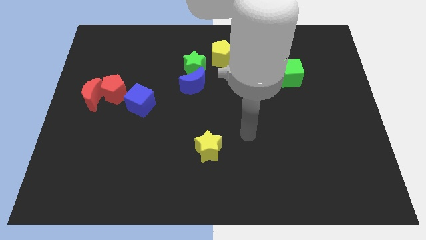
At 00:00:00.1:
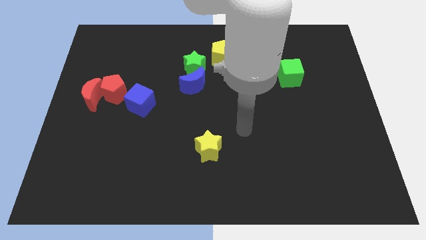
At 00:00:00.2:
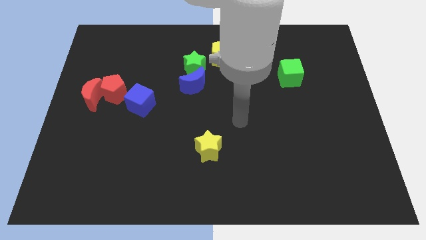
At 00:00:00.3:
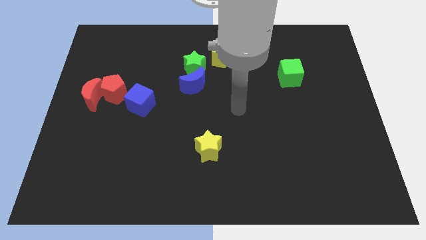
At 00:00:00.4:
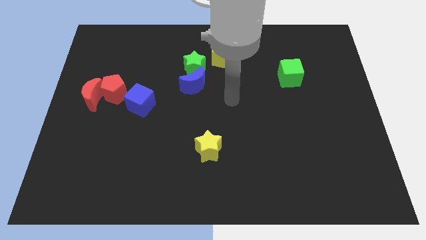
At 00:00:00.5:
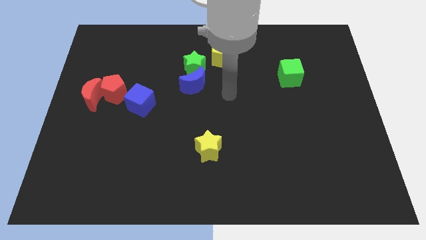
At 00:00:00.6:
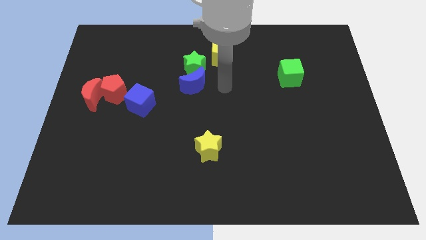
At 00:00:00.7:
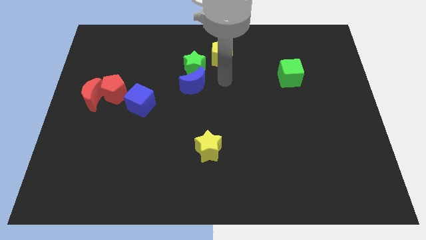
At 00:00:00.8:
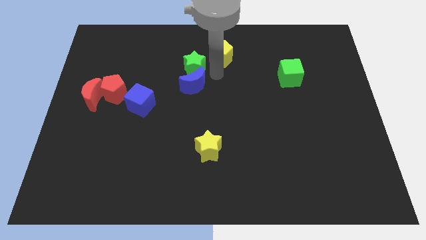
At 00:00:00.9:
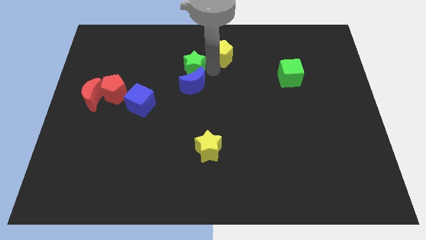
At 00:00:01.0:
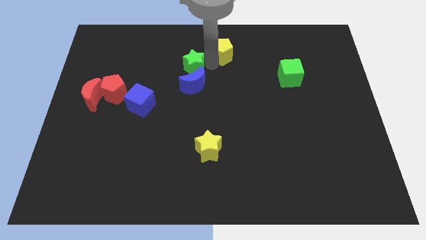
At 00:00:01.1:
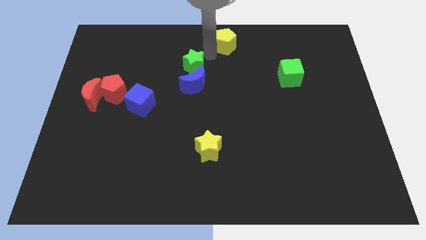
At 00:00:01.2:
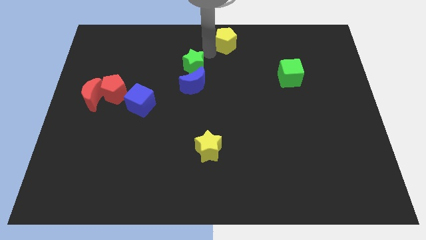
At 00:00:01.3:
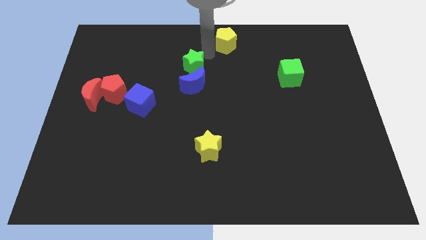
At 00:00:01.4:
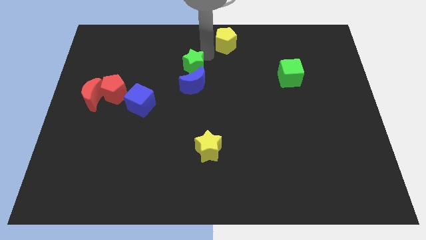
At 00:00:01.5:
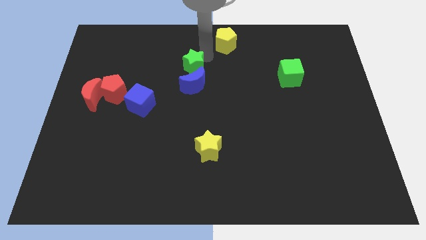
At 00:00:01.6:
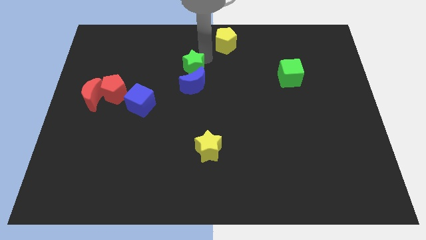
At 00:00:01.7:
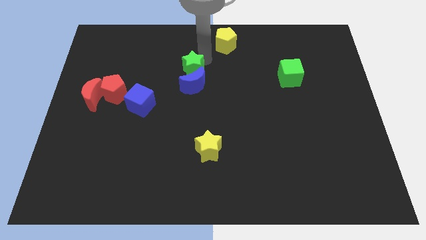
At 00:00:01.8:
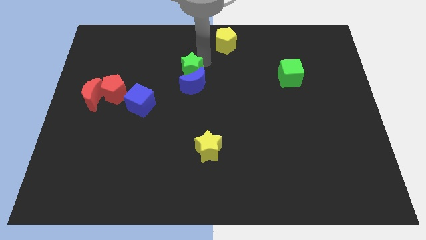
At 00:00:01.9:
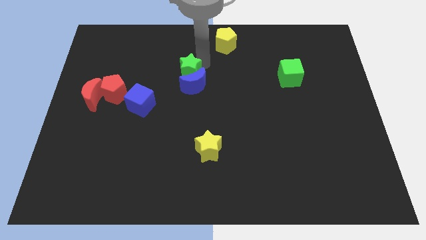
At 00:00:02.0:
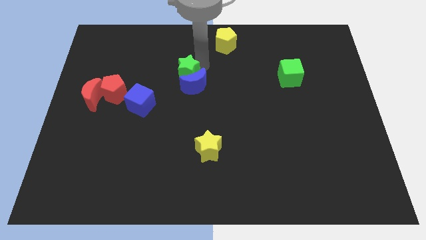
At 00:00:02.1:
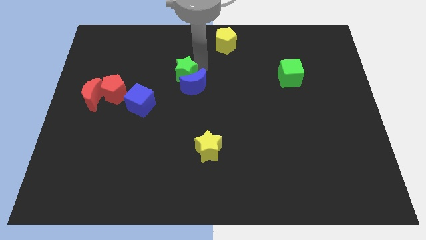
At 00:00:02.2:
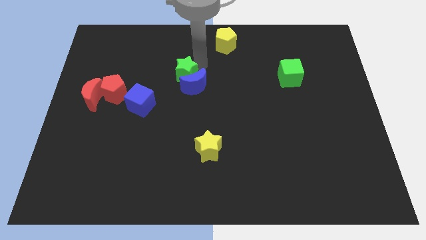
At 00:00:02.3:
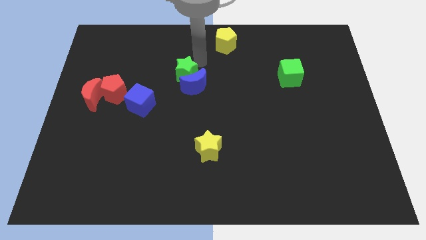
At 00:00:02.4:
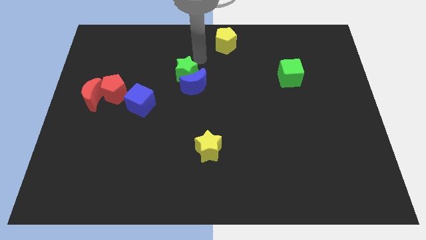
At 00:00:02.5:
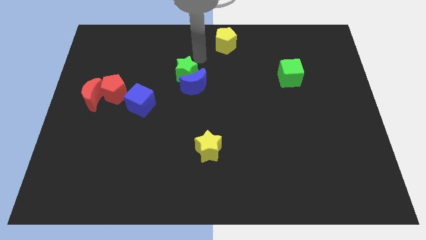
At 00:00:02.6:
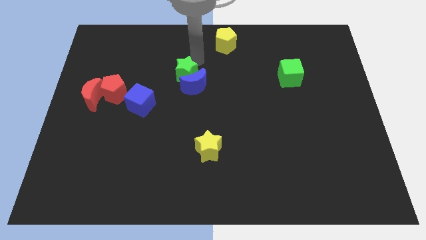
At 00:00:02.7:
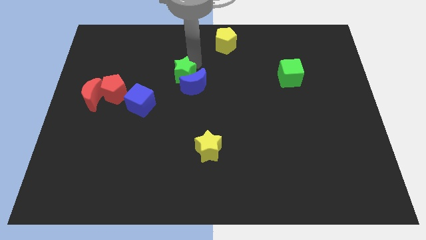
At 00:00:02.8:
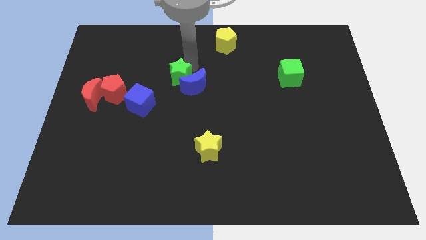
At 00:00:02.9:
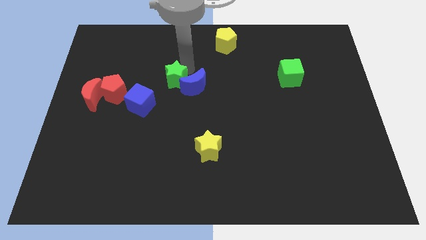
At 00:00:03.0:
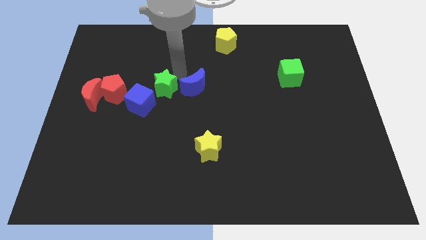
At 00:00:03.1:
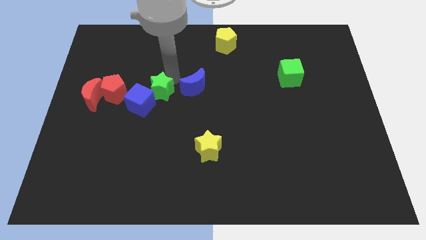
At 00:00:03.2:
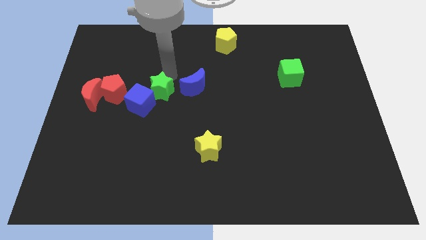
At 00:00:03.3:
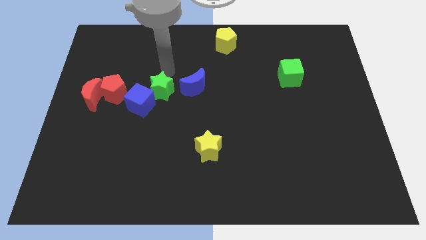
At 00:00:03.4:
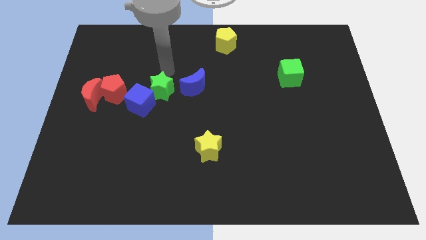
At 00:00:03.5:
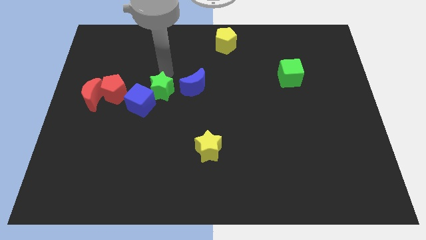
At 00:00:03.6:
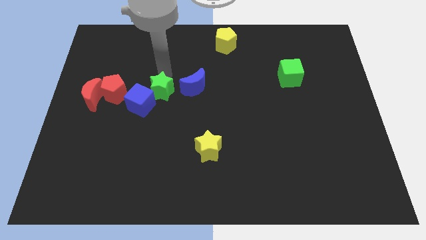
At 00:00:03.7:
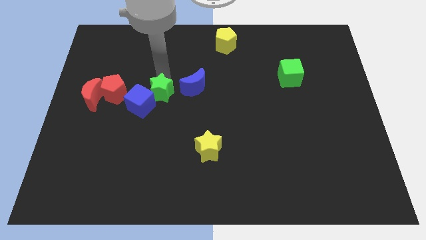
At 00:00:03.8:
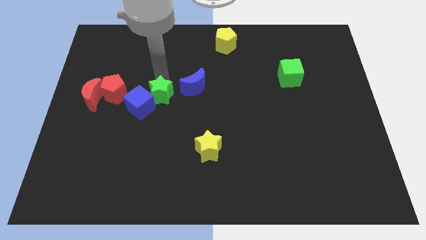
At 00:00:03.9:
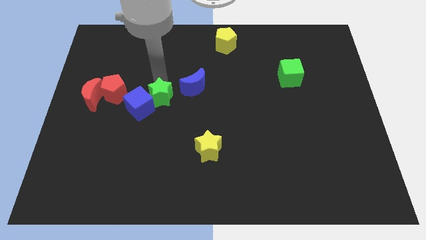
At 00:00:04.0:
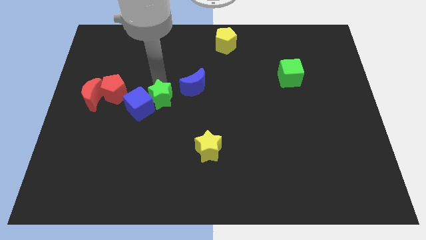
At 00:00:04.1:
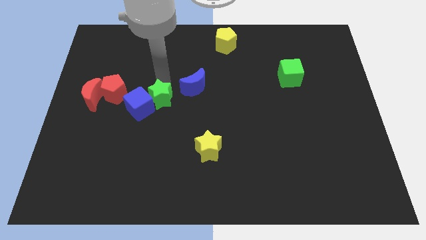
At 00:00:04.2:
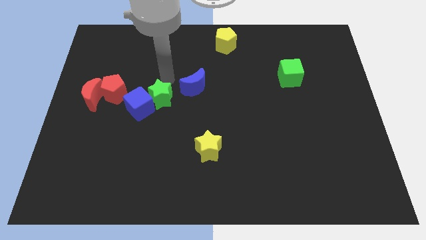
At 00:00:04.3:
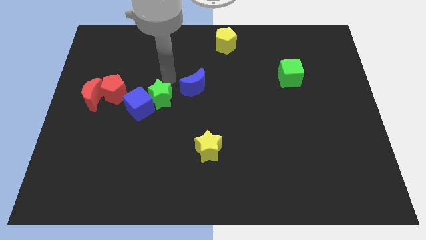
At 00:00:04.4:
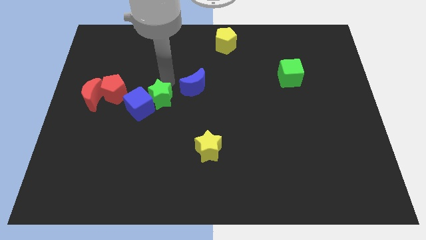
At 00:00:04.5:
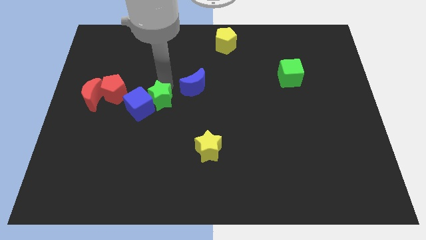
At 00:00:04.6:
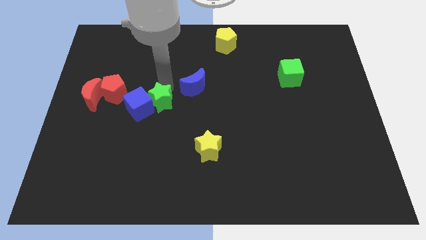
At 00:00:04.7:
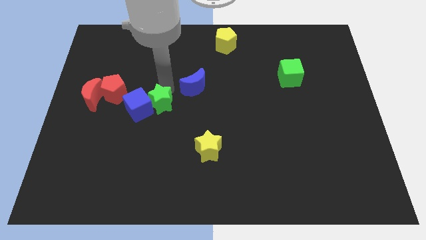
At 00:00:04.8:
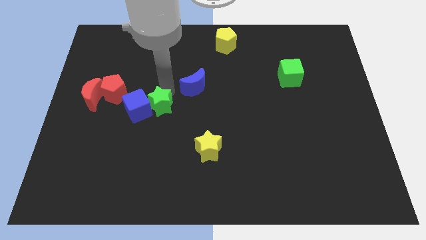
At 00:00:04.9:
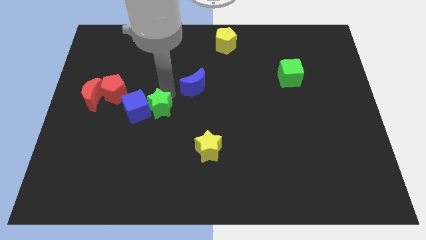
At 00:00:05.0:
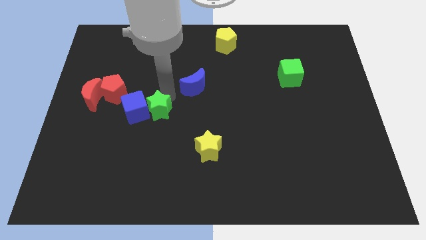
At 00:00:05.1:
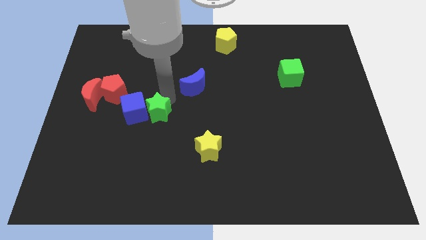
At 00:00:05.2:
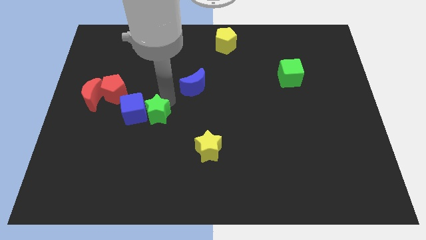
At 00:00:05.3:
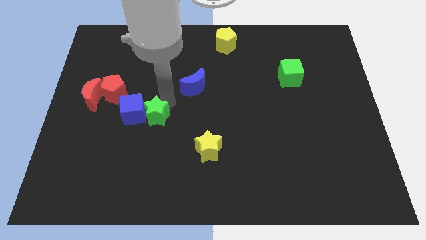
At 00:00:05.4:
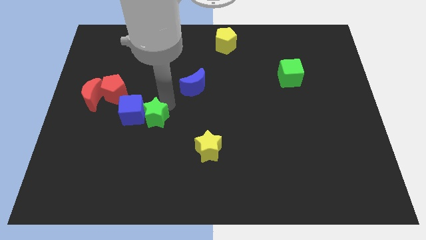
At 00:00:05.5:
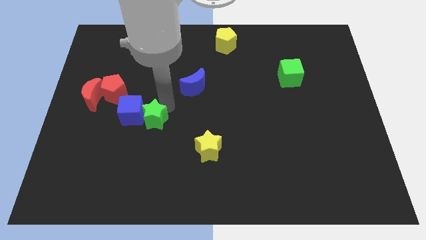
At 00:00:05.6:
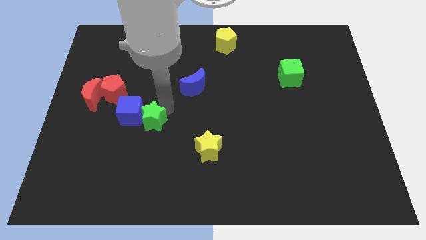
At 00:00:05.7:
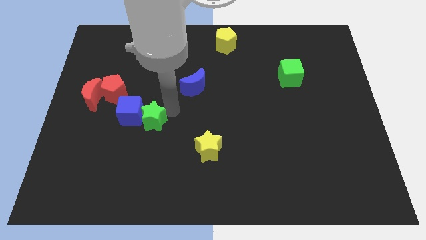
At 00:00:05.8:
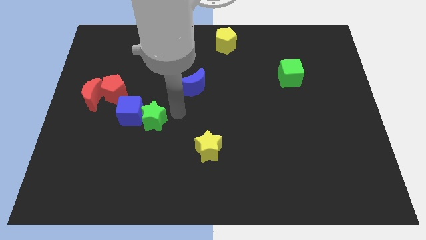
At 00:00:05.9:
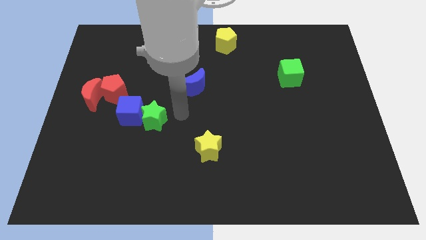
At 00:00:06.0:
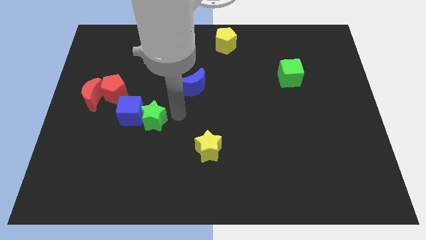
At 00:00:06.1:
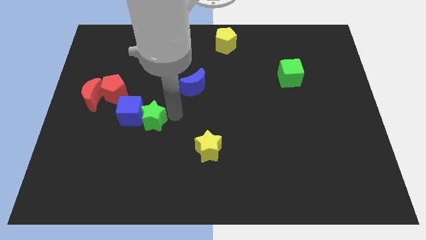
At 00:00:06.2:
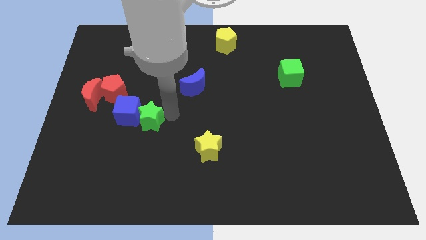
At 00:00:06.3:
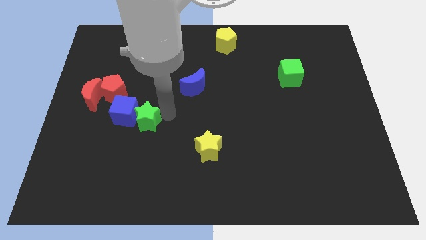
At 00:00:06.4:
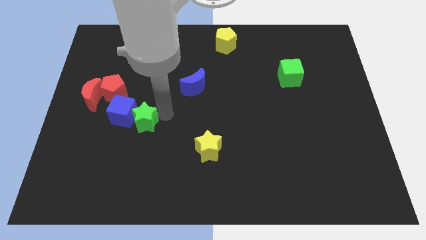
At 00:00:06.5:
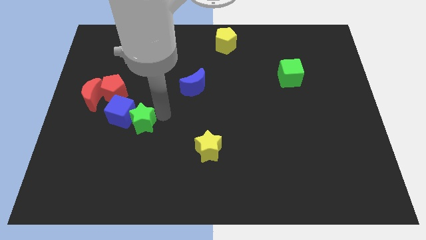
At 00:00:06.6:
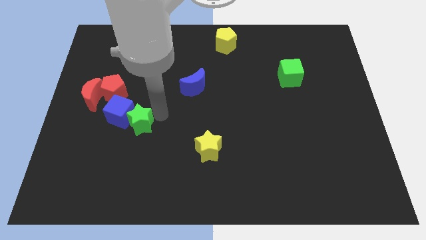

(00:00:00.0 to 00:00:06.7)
push the green star downwards and left

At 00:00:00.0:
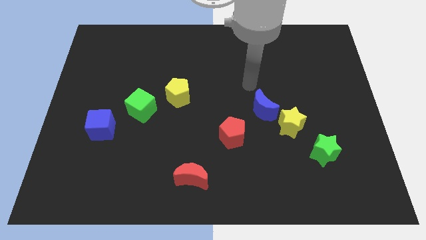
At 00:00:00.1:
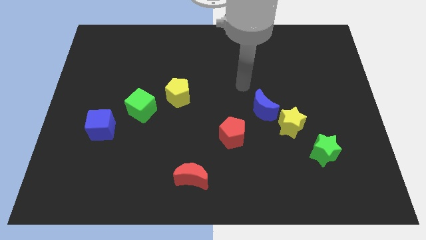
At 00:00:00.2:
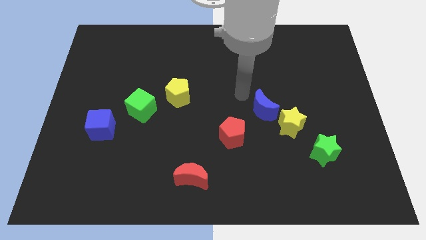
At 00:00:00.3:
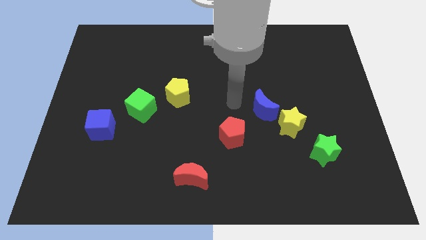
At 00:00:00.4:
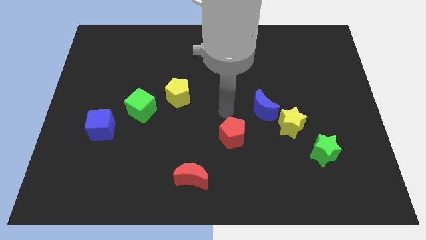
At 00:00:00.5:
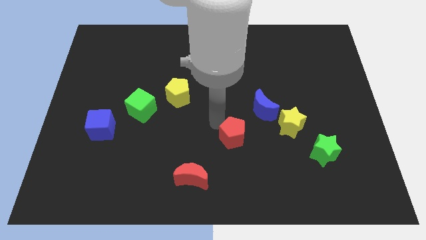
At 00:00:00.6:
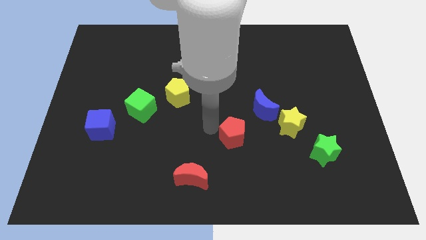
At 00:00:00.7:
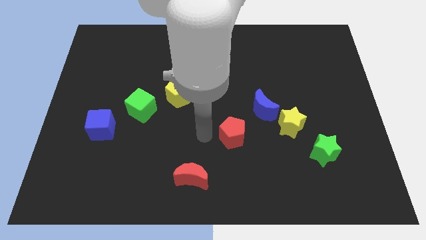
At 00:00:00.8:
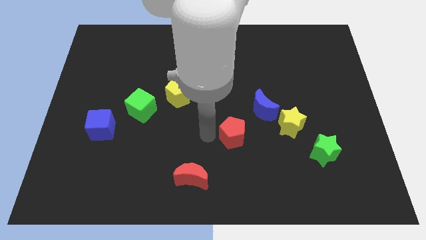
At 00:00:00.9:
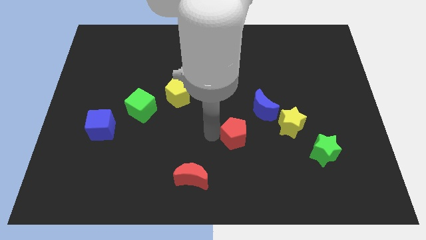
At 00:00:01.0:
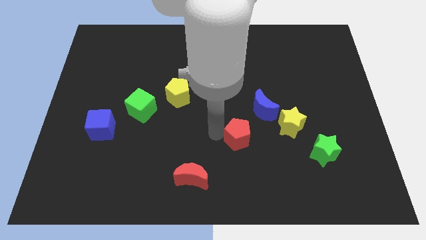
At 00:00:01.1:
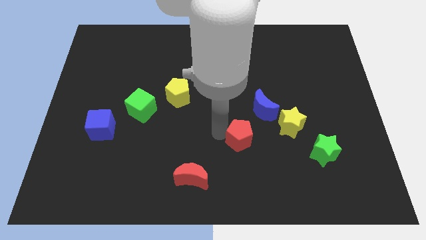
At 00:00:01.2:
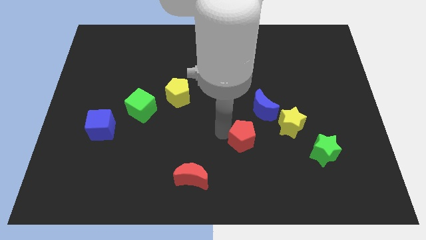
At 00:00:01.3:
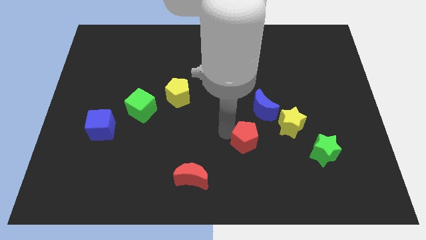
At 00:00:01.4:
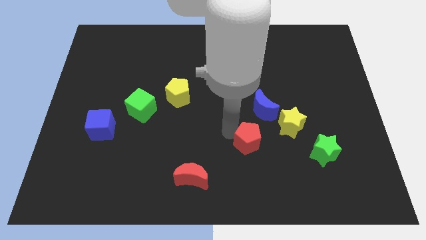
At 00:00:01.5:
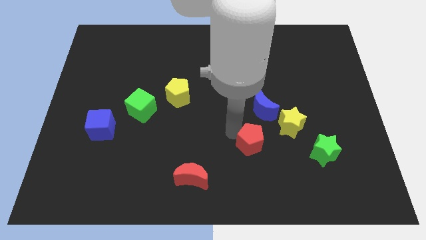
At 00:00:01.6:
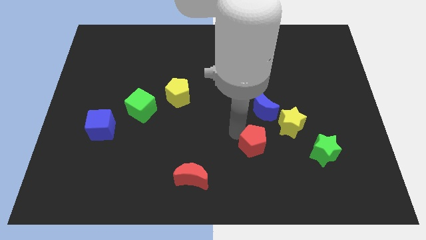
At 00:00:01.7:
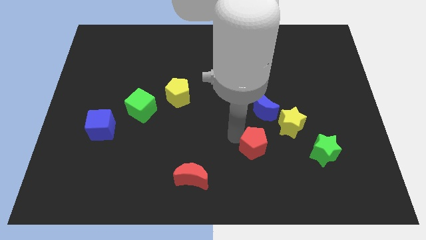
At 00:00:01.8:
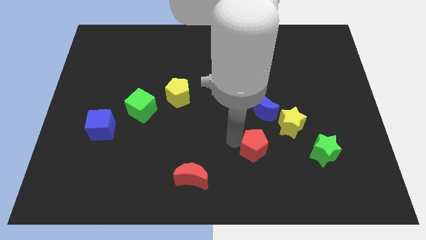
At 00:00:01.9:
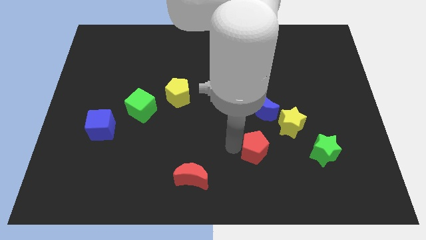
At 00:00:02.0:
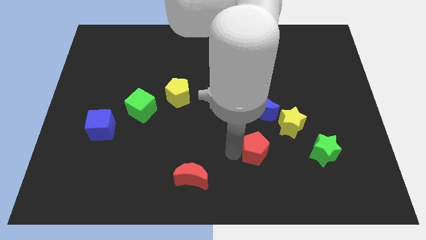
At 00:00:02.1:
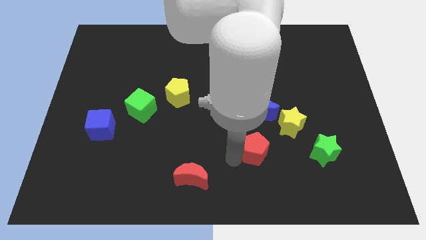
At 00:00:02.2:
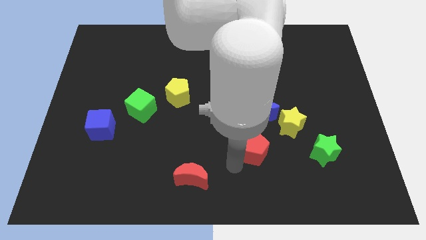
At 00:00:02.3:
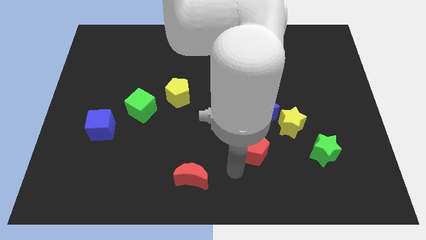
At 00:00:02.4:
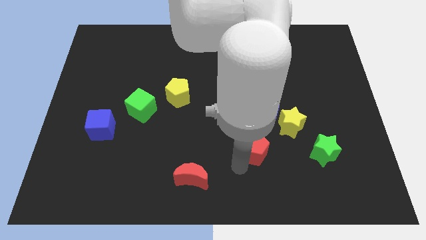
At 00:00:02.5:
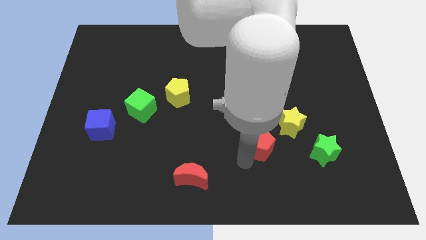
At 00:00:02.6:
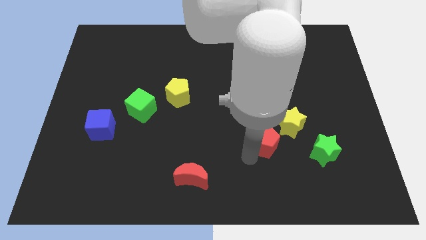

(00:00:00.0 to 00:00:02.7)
slightly push the red pentagon to the right
